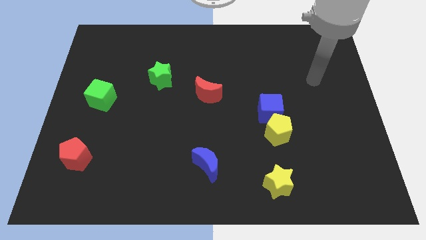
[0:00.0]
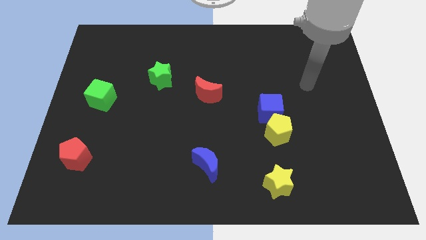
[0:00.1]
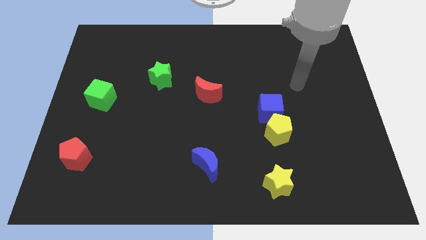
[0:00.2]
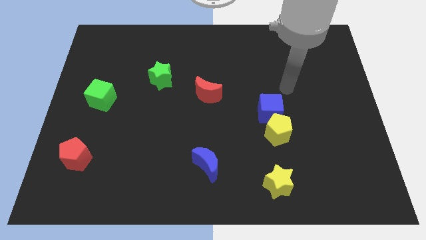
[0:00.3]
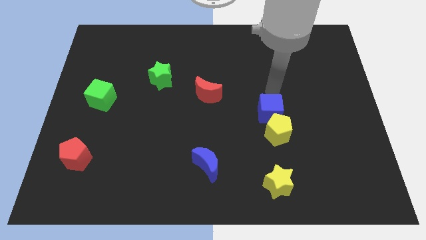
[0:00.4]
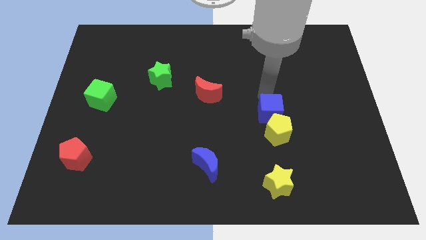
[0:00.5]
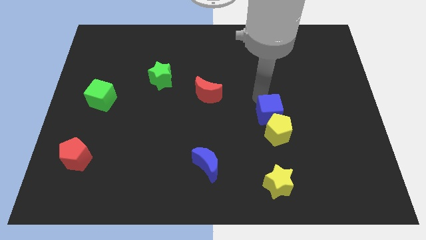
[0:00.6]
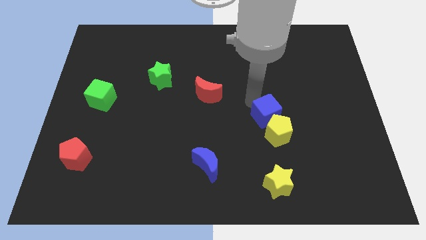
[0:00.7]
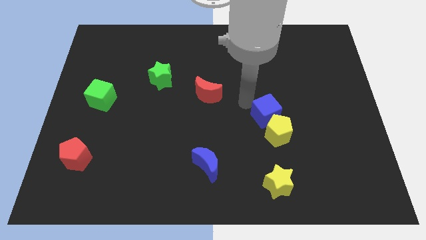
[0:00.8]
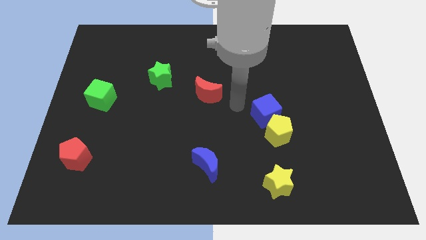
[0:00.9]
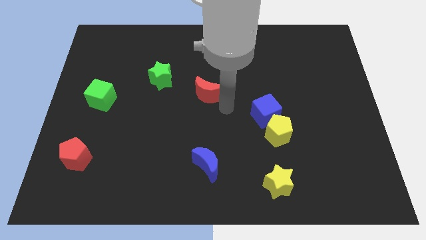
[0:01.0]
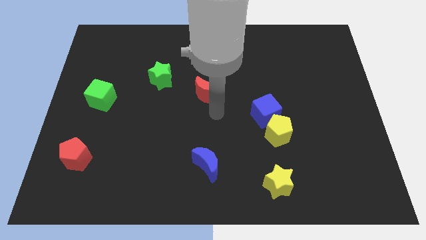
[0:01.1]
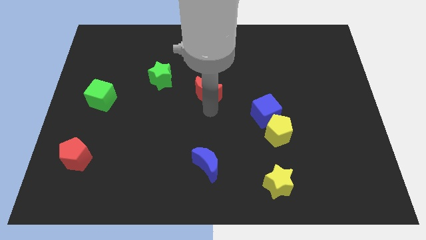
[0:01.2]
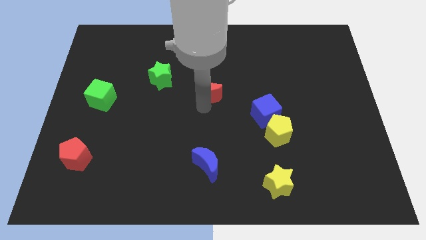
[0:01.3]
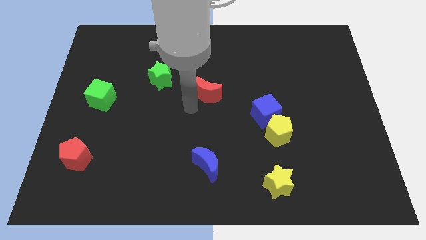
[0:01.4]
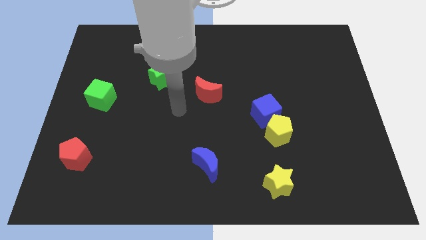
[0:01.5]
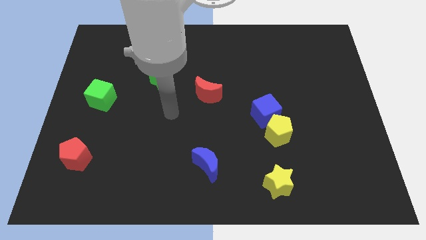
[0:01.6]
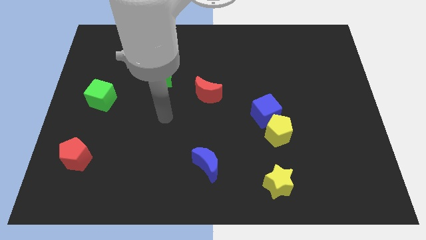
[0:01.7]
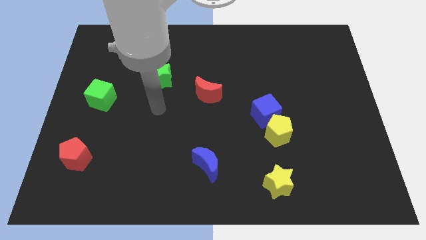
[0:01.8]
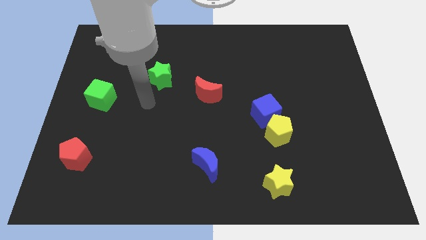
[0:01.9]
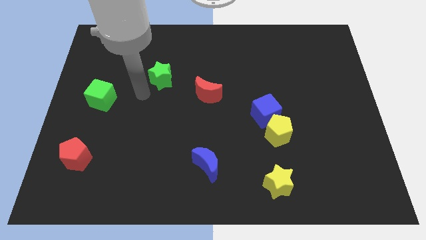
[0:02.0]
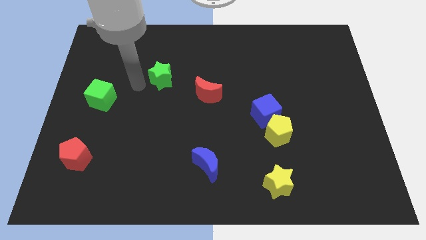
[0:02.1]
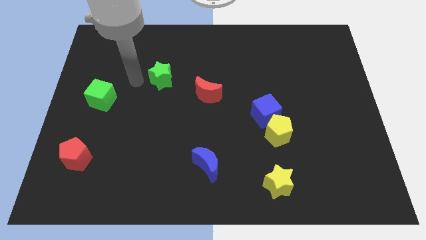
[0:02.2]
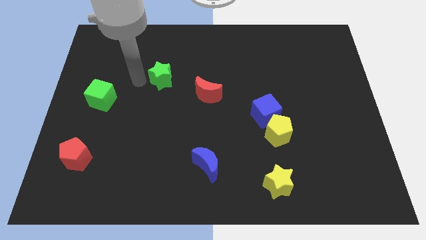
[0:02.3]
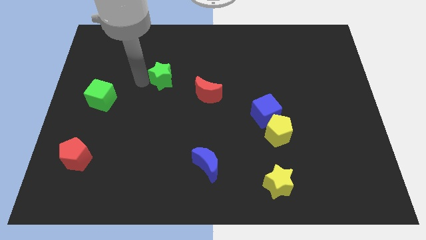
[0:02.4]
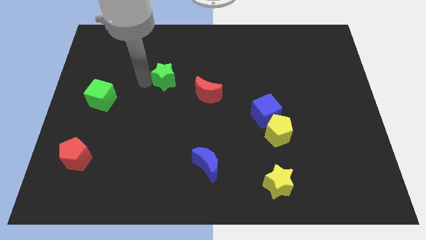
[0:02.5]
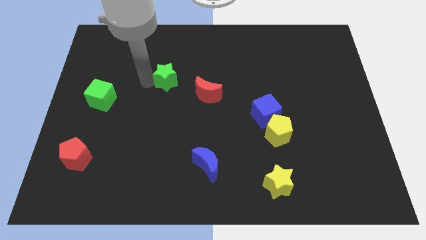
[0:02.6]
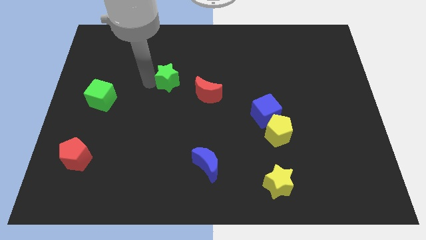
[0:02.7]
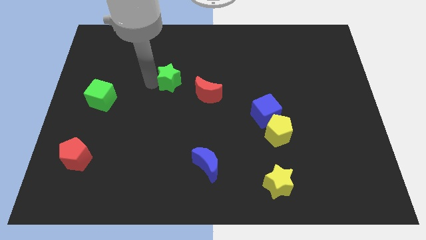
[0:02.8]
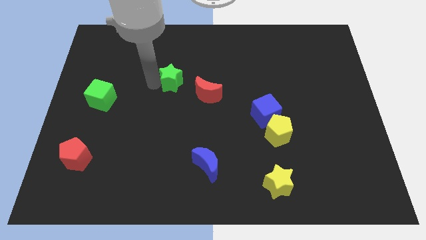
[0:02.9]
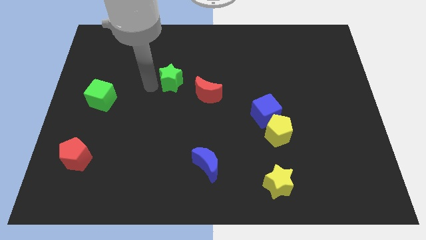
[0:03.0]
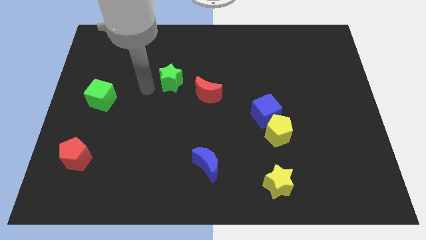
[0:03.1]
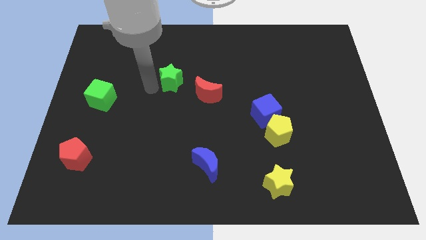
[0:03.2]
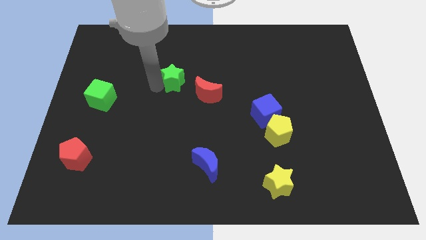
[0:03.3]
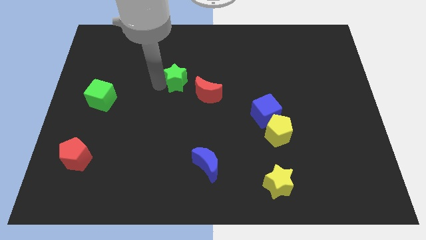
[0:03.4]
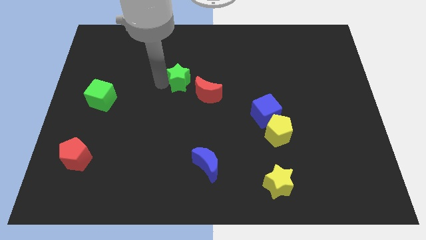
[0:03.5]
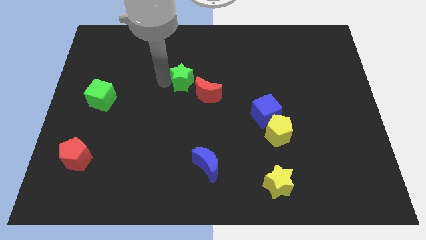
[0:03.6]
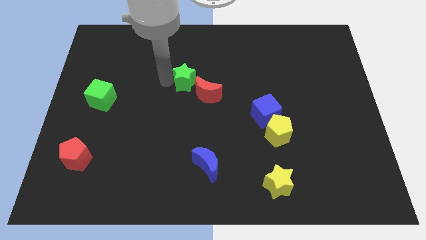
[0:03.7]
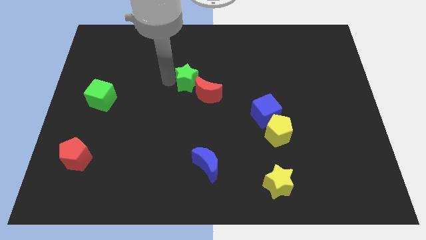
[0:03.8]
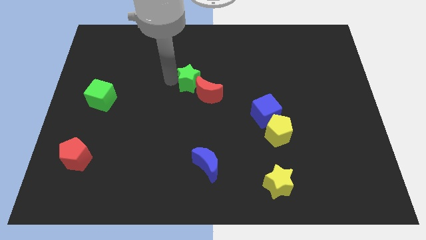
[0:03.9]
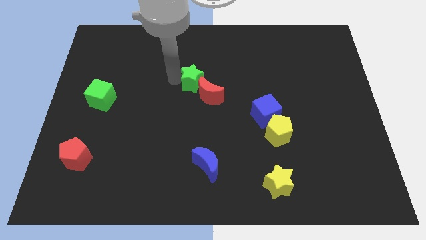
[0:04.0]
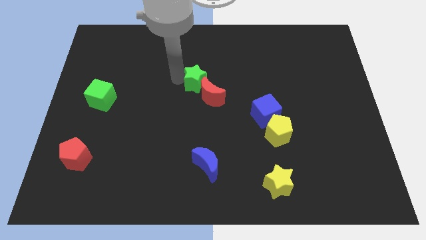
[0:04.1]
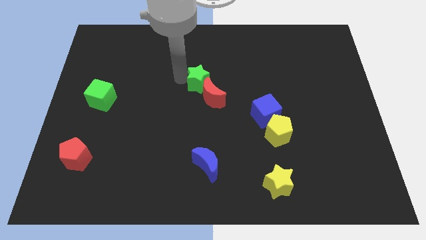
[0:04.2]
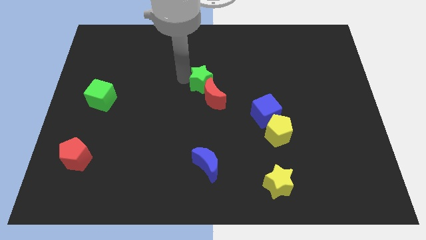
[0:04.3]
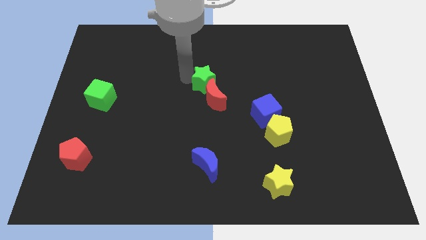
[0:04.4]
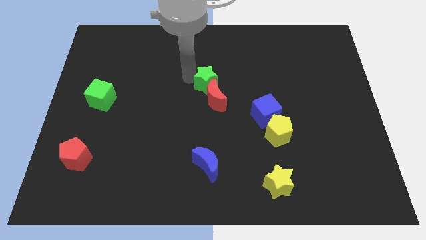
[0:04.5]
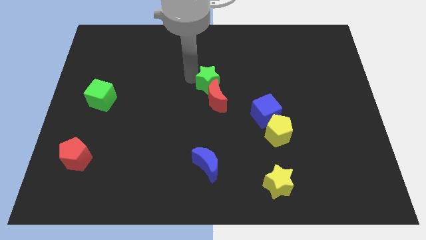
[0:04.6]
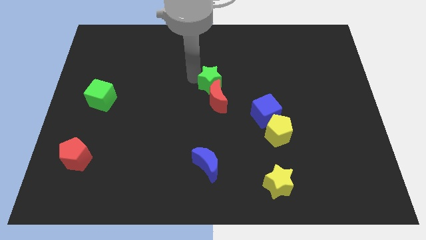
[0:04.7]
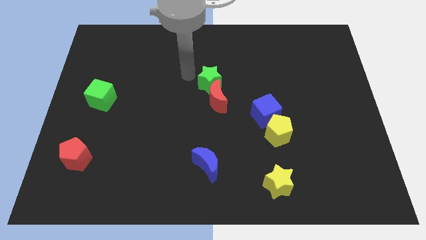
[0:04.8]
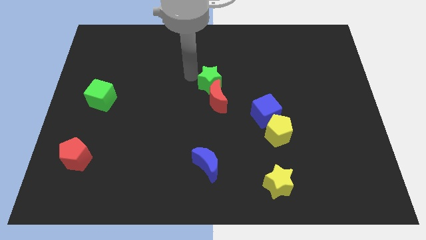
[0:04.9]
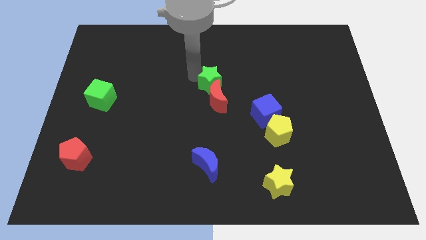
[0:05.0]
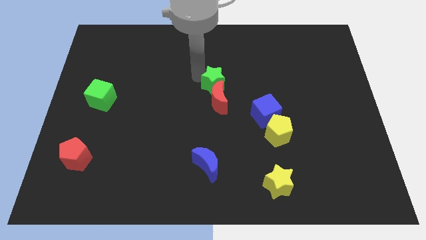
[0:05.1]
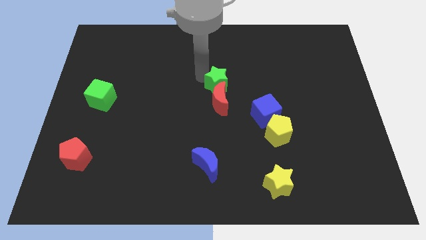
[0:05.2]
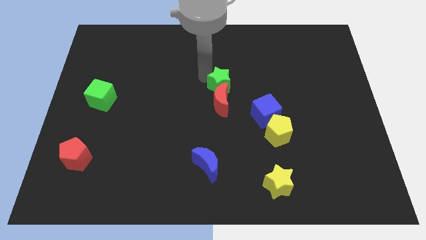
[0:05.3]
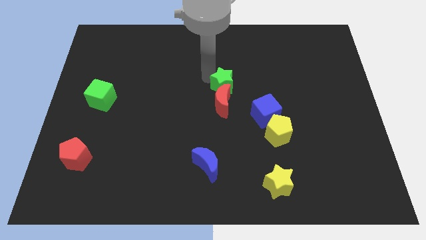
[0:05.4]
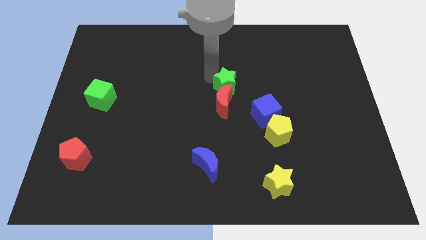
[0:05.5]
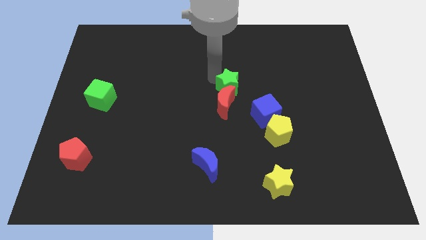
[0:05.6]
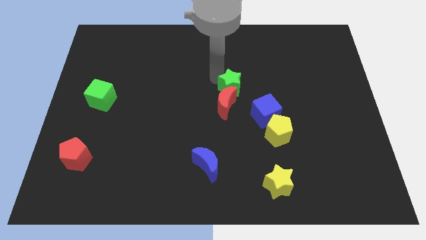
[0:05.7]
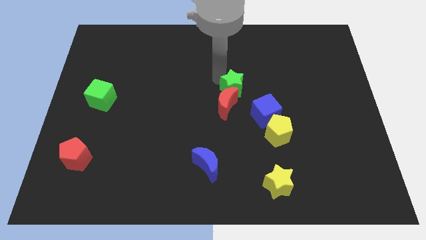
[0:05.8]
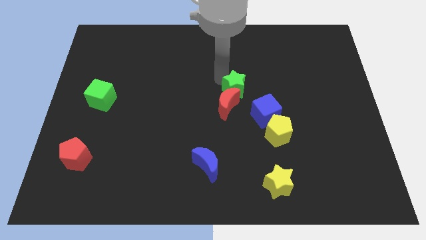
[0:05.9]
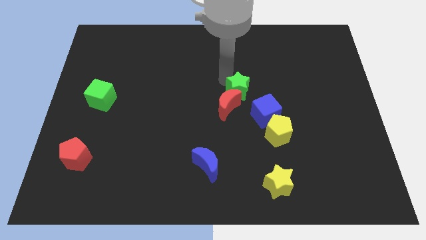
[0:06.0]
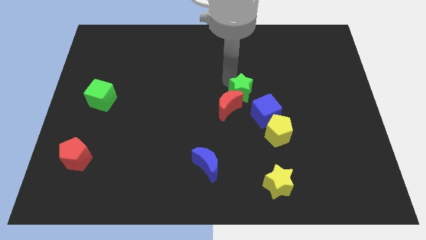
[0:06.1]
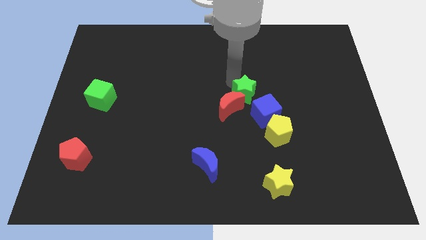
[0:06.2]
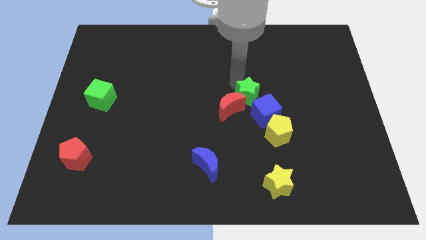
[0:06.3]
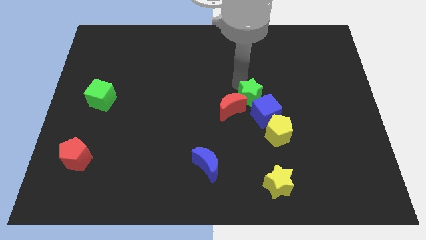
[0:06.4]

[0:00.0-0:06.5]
push the green star next to the blue cube

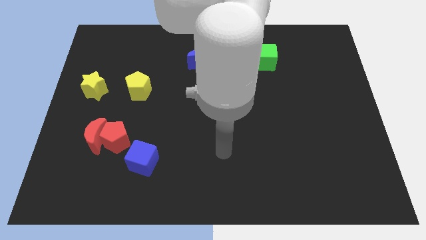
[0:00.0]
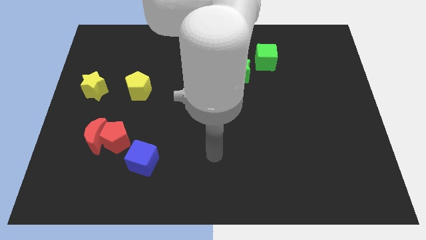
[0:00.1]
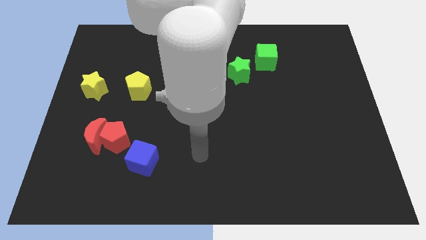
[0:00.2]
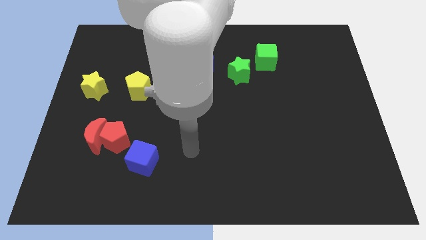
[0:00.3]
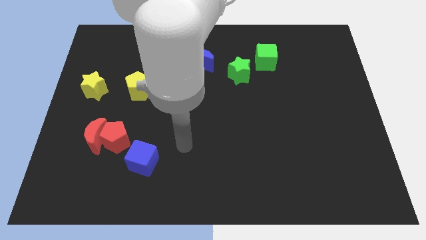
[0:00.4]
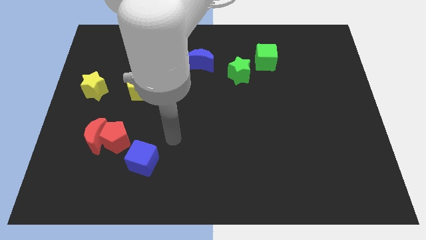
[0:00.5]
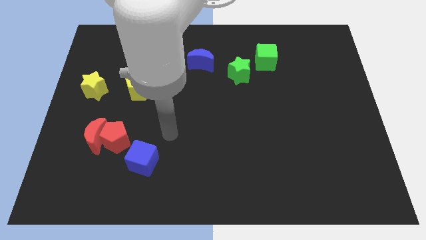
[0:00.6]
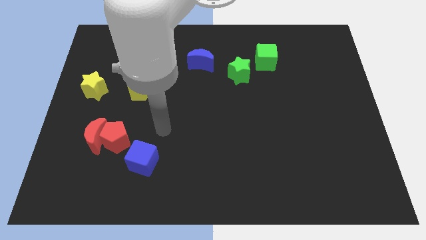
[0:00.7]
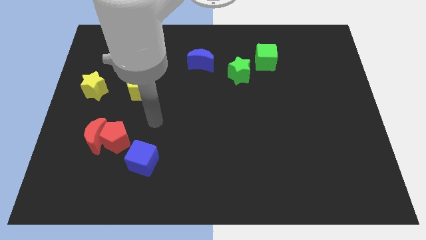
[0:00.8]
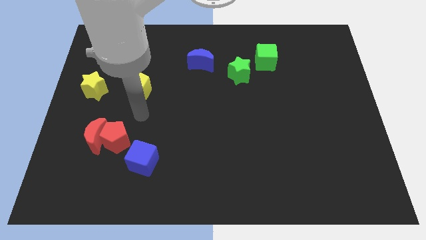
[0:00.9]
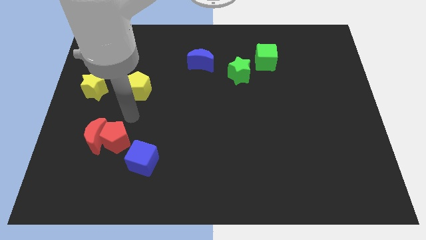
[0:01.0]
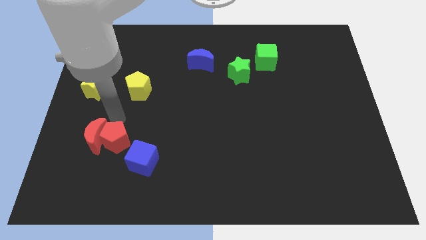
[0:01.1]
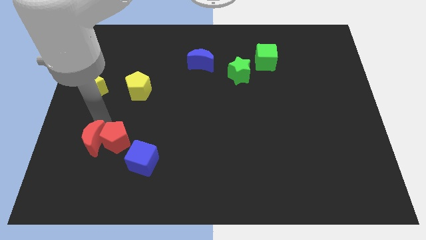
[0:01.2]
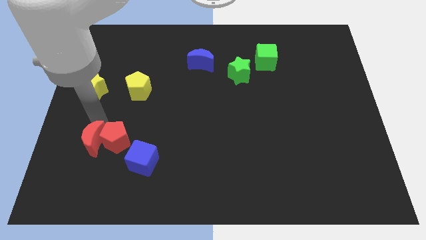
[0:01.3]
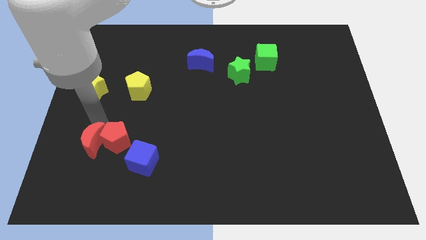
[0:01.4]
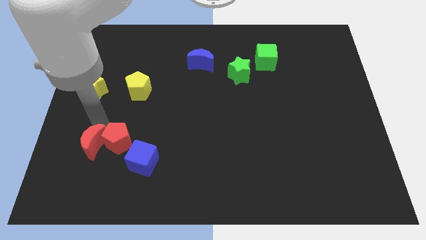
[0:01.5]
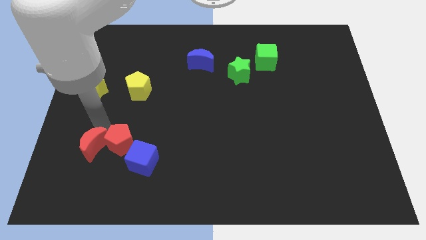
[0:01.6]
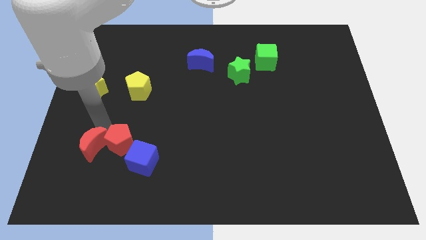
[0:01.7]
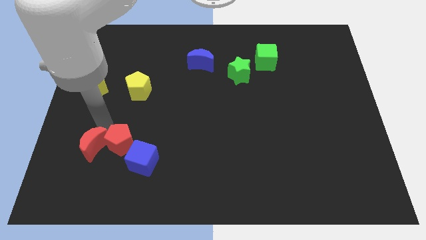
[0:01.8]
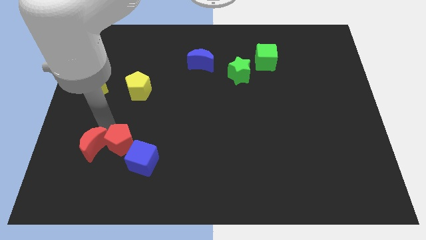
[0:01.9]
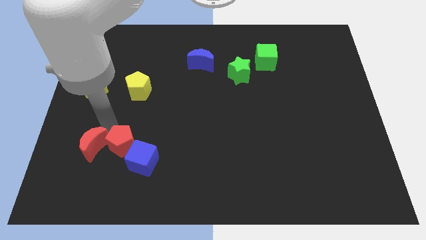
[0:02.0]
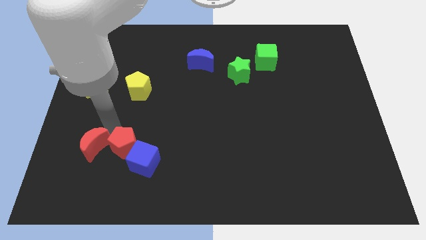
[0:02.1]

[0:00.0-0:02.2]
put the red pentagon to the blue cube
